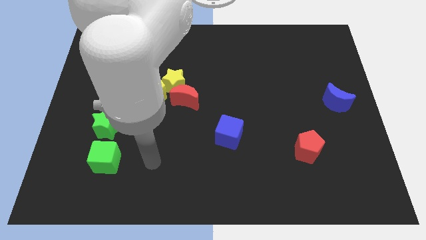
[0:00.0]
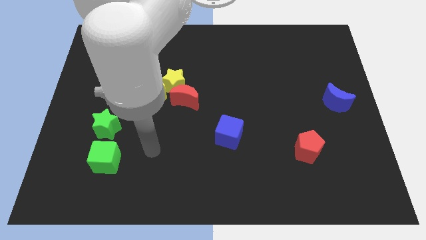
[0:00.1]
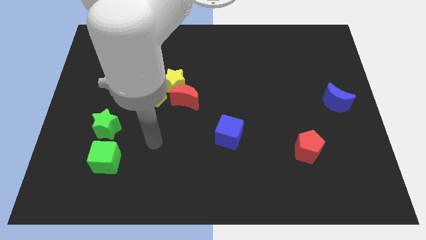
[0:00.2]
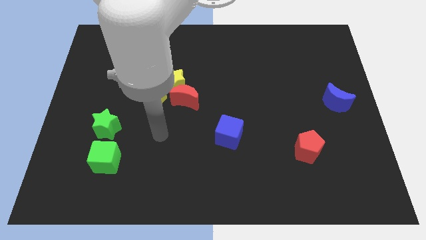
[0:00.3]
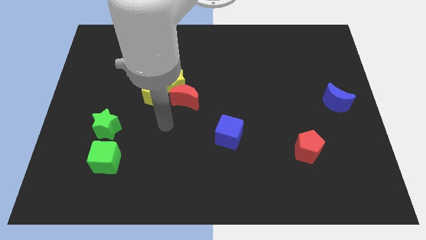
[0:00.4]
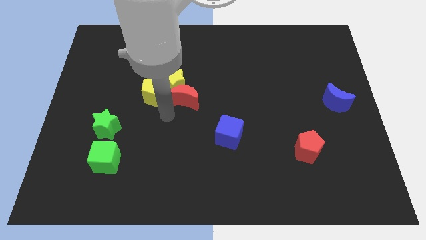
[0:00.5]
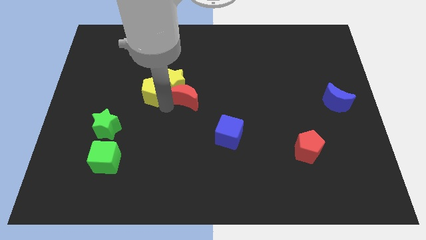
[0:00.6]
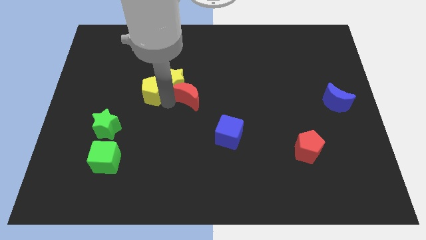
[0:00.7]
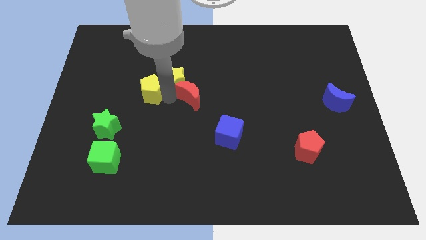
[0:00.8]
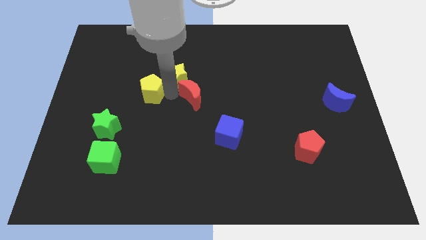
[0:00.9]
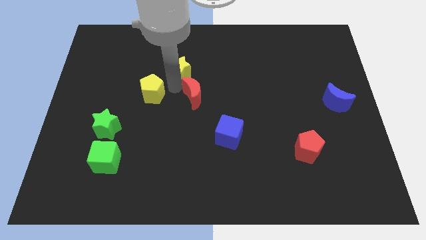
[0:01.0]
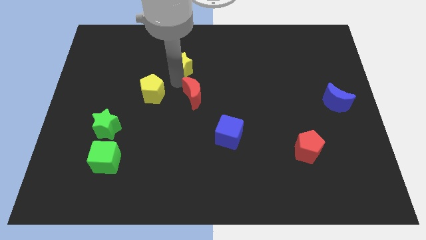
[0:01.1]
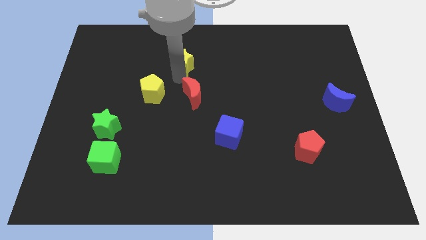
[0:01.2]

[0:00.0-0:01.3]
move the yellow star away from the red moon and yellow pentagon

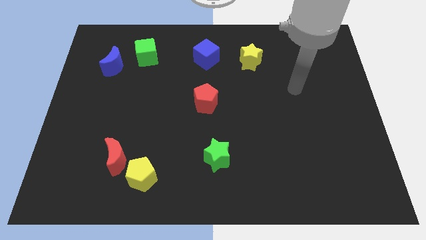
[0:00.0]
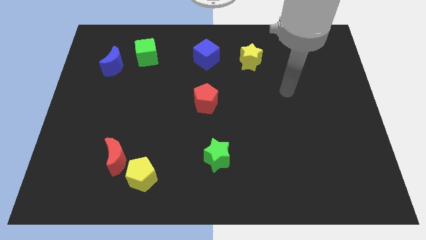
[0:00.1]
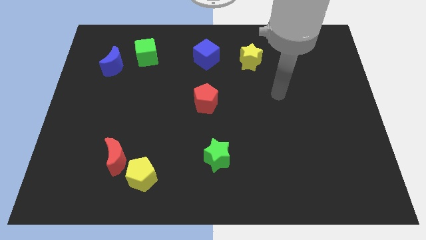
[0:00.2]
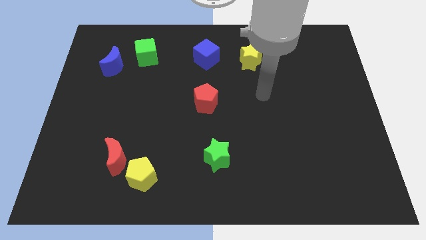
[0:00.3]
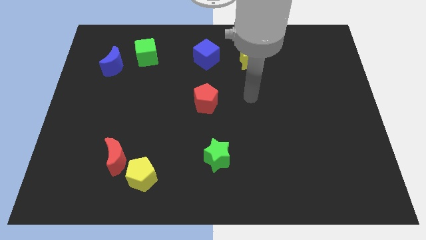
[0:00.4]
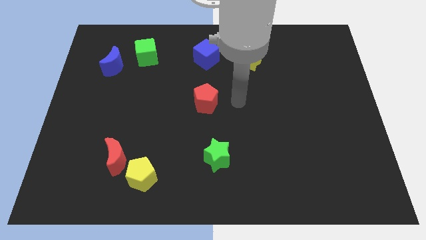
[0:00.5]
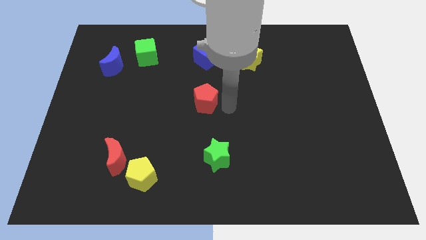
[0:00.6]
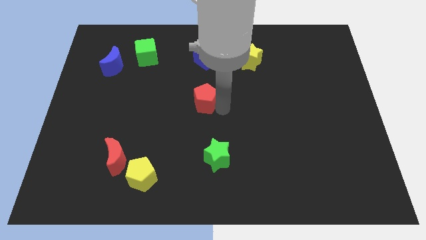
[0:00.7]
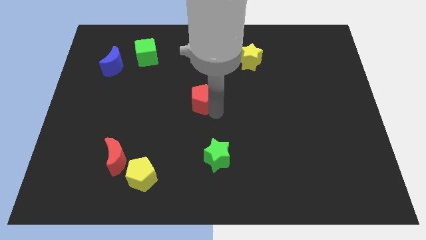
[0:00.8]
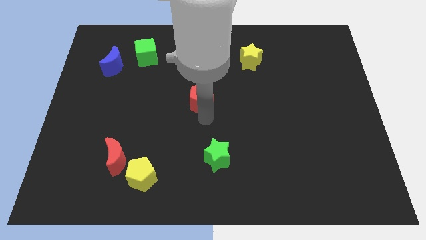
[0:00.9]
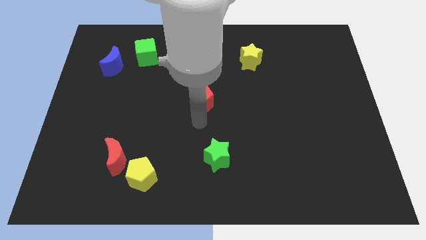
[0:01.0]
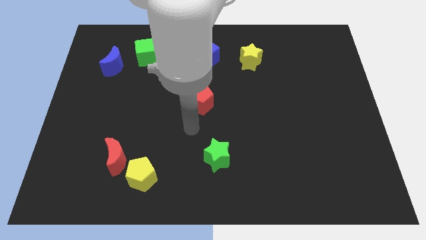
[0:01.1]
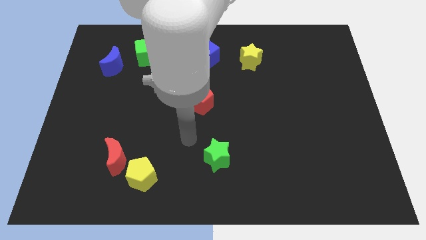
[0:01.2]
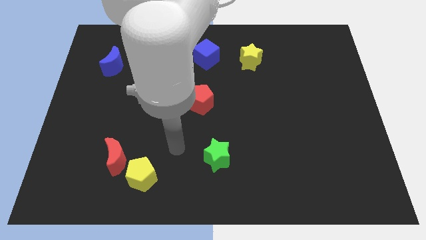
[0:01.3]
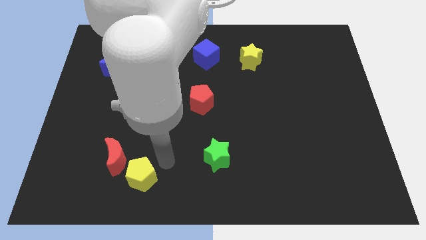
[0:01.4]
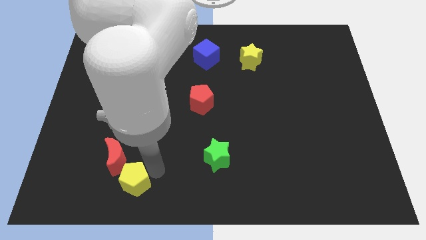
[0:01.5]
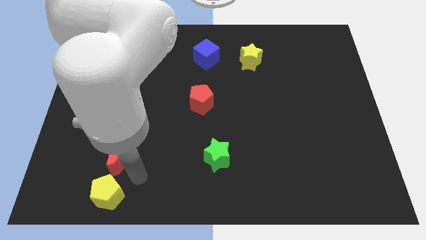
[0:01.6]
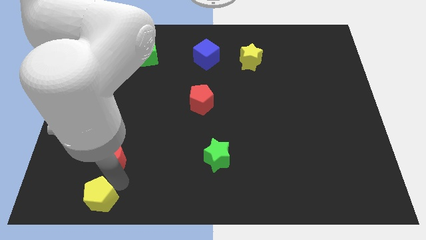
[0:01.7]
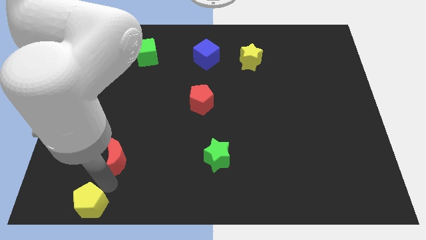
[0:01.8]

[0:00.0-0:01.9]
pull the red moon apart from the yellow pentagon

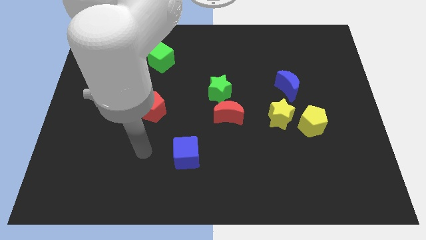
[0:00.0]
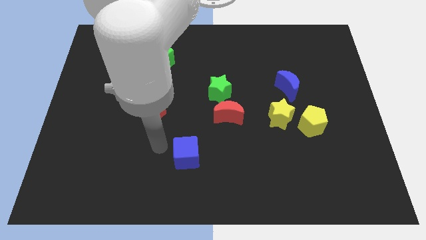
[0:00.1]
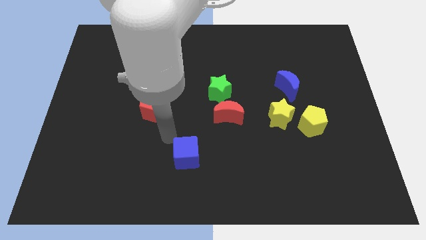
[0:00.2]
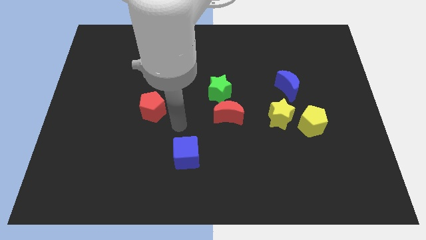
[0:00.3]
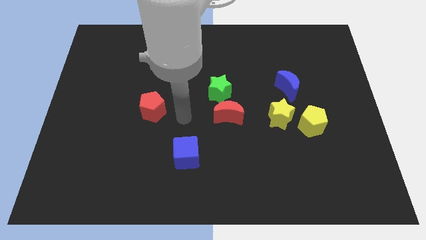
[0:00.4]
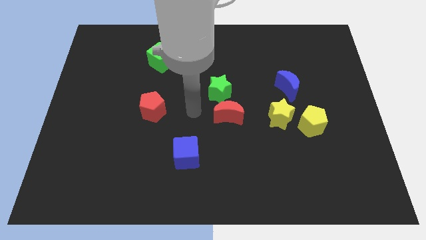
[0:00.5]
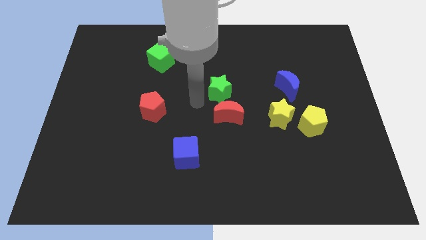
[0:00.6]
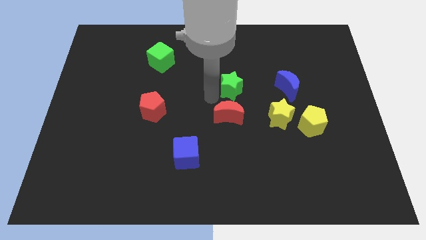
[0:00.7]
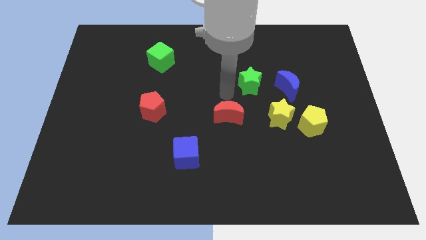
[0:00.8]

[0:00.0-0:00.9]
pull the red moon apart from the green star

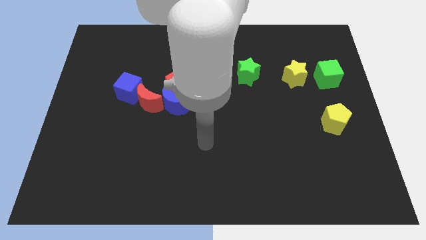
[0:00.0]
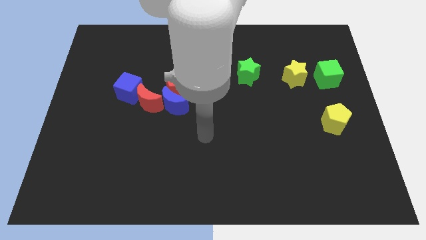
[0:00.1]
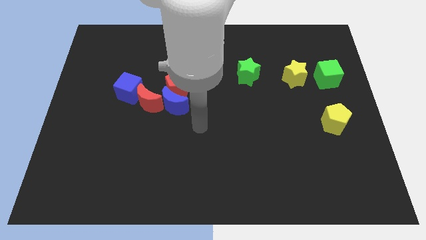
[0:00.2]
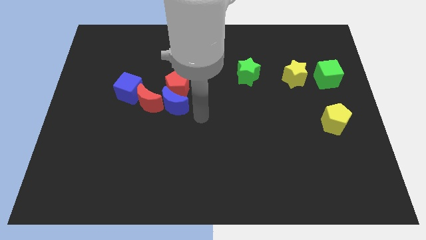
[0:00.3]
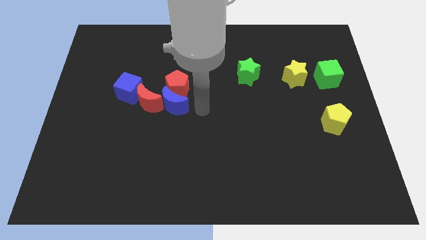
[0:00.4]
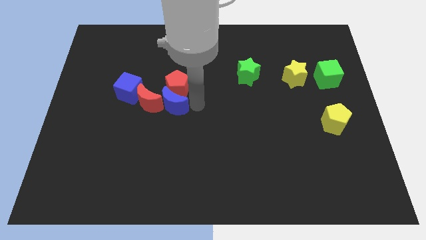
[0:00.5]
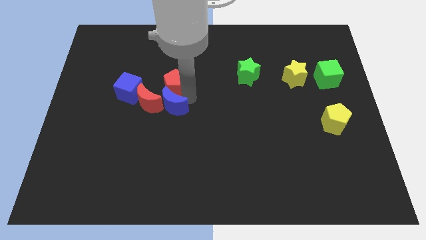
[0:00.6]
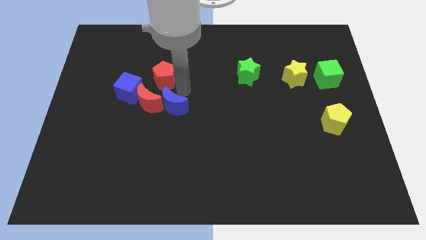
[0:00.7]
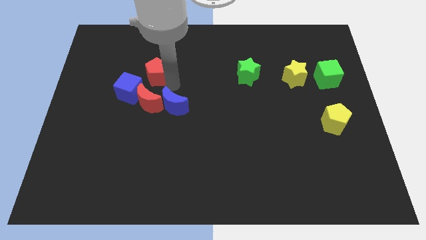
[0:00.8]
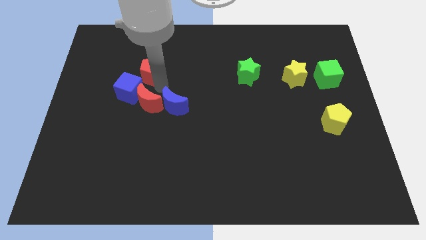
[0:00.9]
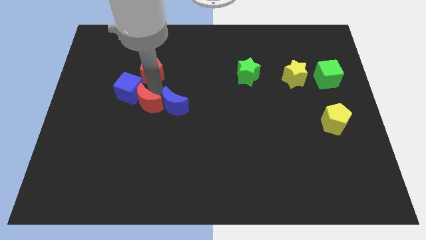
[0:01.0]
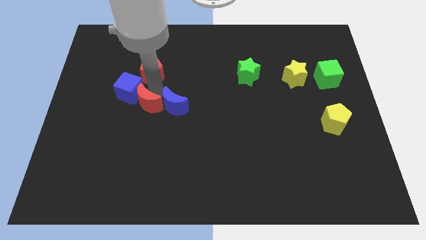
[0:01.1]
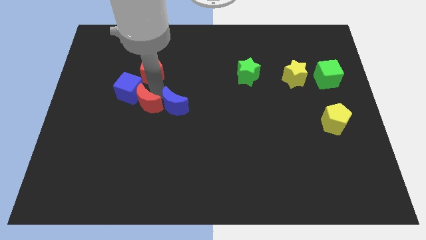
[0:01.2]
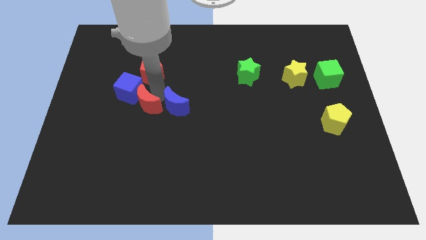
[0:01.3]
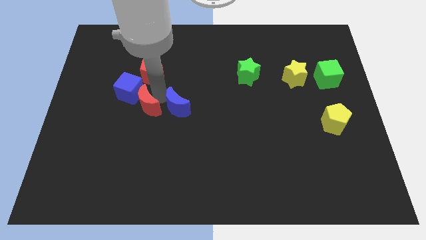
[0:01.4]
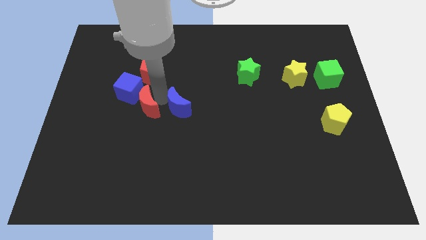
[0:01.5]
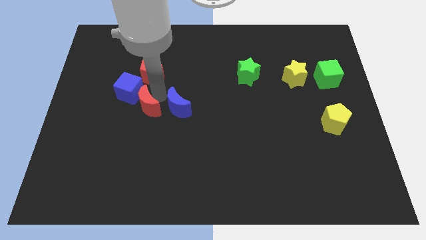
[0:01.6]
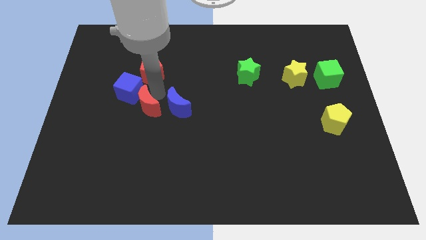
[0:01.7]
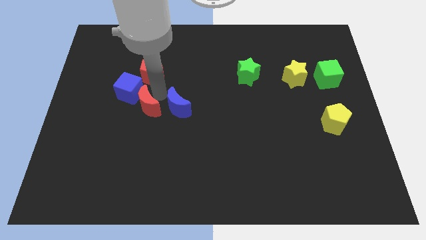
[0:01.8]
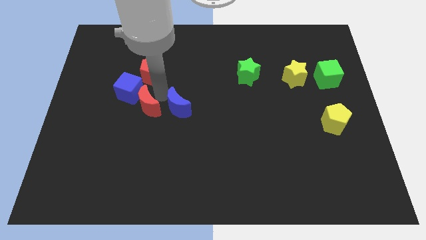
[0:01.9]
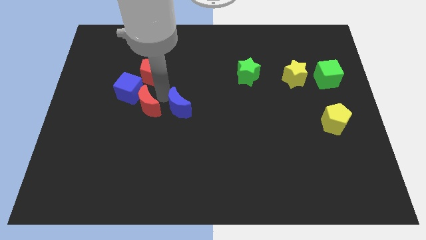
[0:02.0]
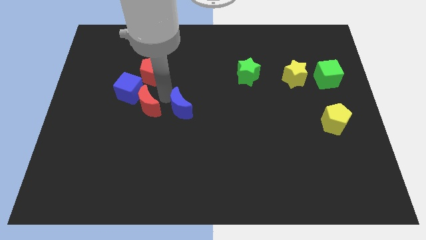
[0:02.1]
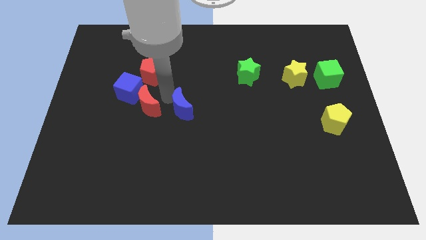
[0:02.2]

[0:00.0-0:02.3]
separate the blue moon from the red pentagon and red moon

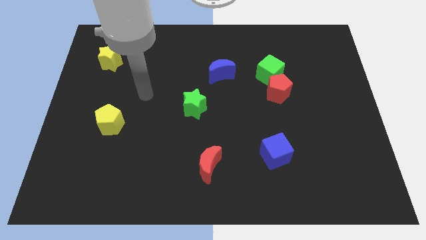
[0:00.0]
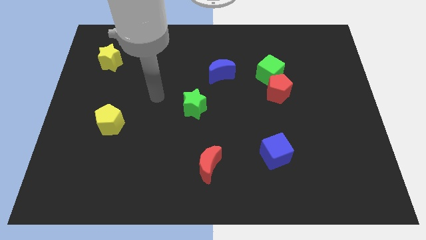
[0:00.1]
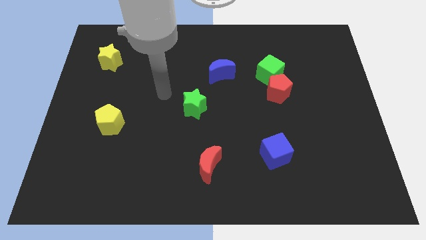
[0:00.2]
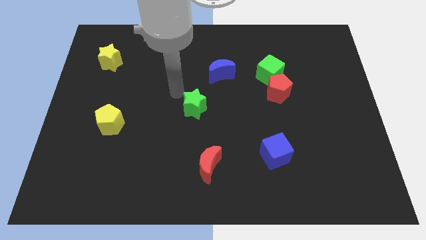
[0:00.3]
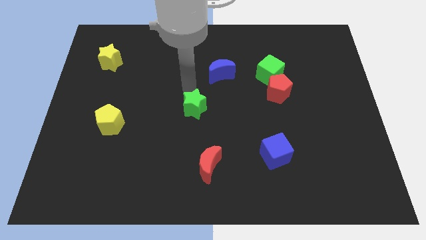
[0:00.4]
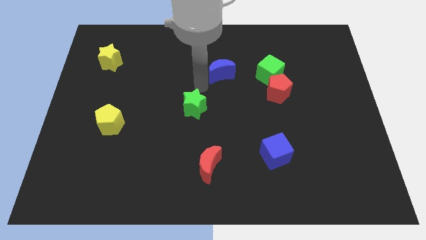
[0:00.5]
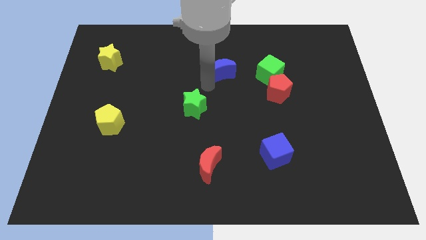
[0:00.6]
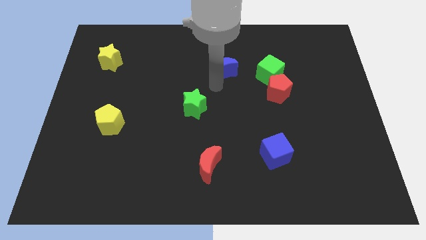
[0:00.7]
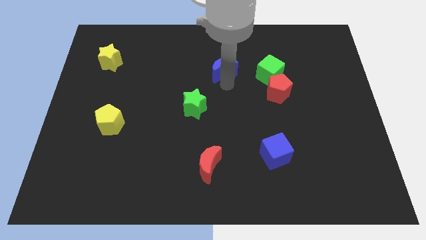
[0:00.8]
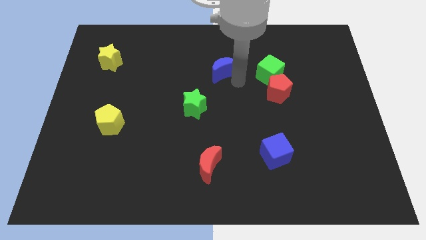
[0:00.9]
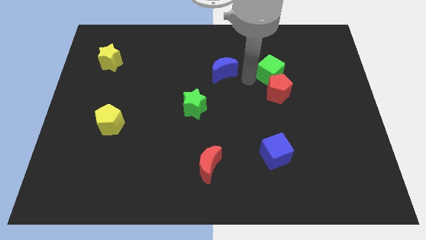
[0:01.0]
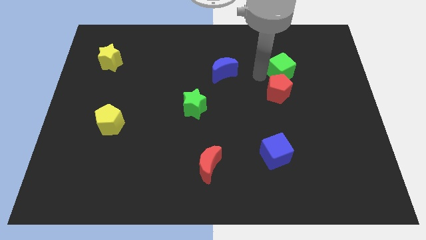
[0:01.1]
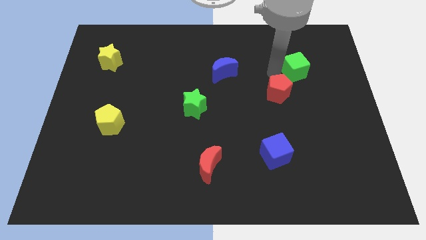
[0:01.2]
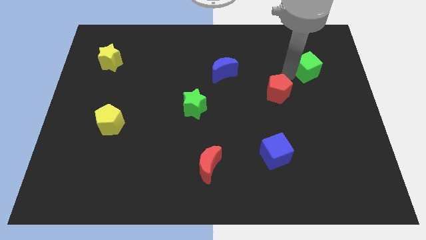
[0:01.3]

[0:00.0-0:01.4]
move the red pentagon away from the green cube

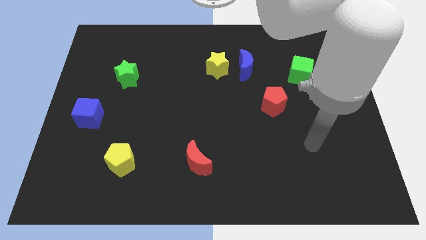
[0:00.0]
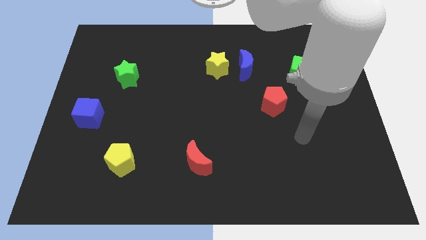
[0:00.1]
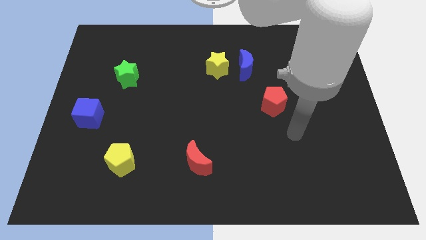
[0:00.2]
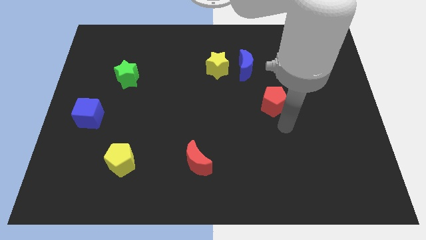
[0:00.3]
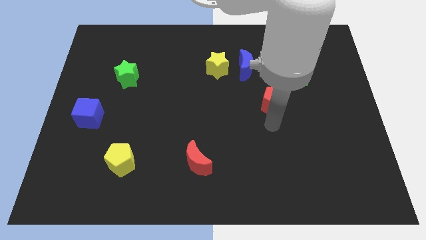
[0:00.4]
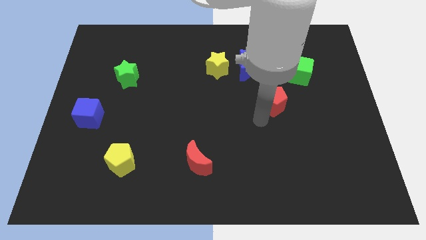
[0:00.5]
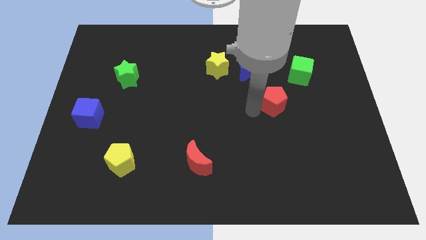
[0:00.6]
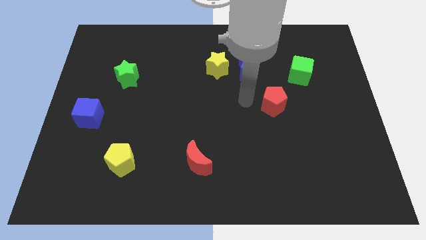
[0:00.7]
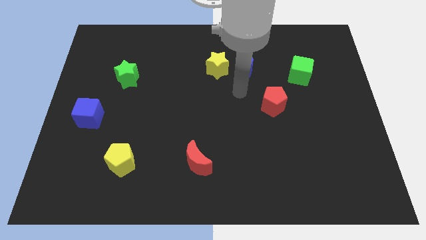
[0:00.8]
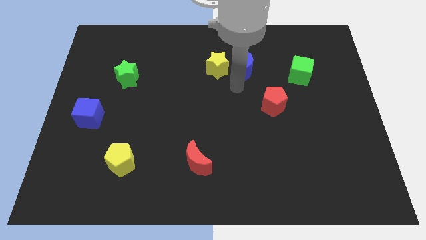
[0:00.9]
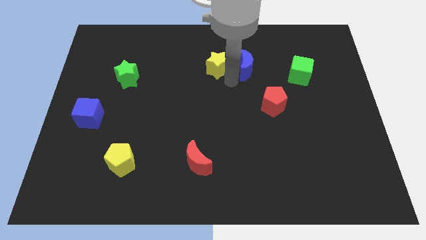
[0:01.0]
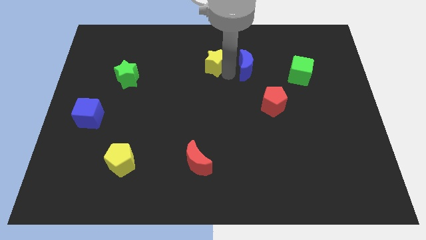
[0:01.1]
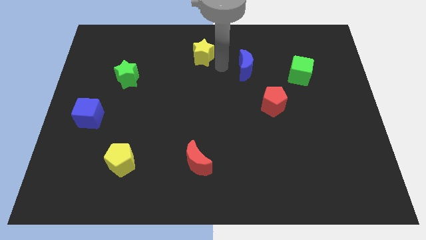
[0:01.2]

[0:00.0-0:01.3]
pull the blue moon apart from the yellow star

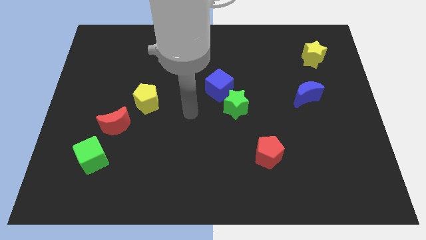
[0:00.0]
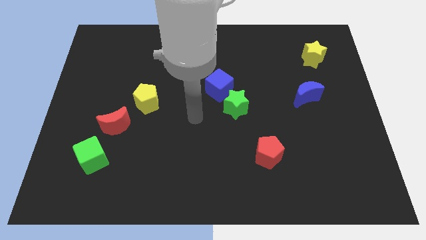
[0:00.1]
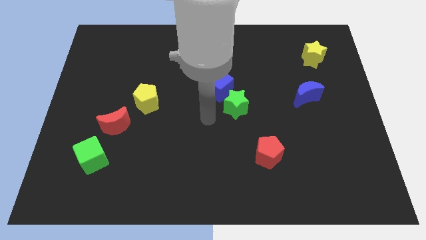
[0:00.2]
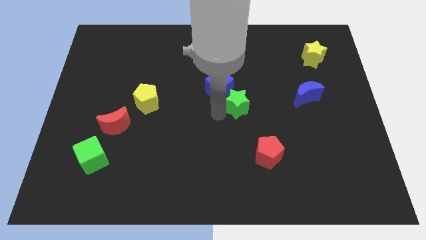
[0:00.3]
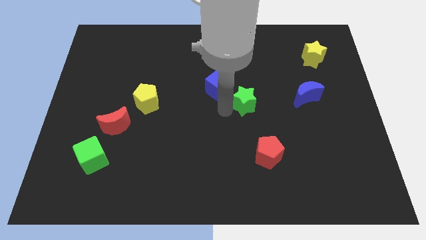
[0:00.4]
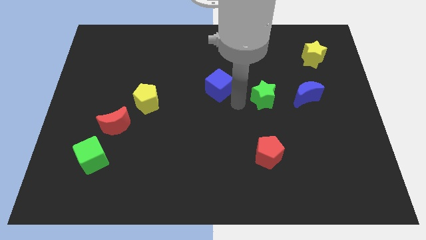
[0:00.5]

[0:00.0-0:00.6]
separate the blue cube from the green star
